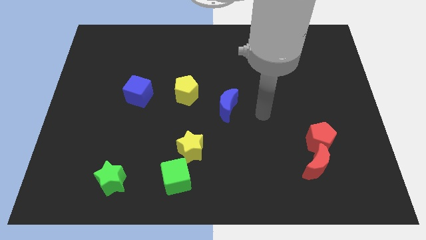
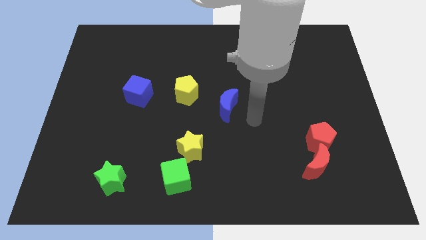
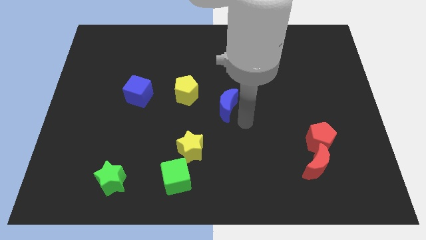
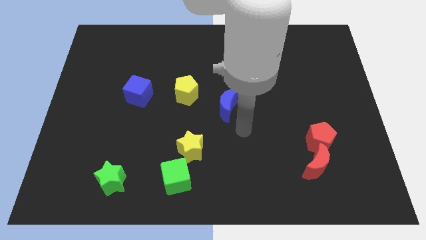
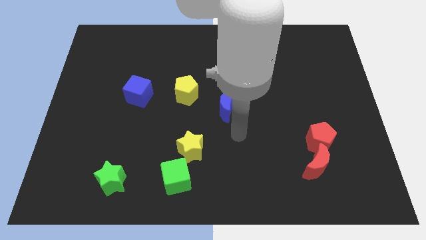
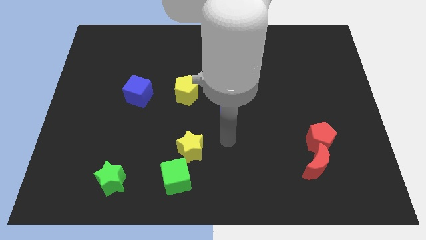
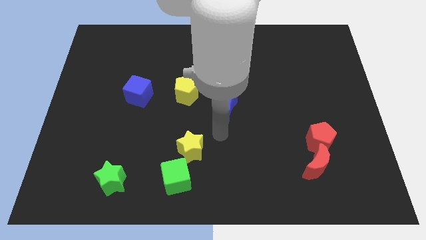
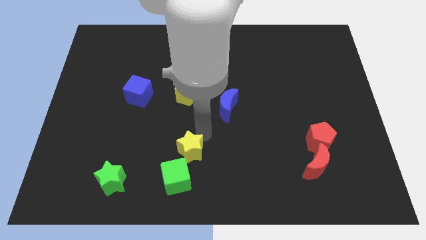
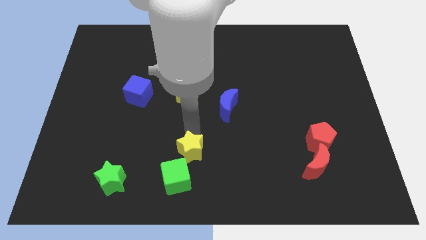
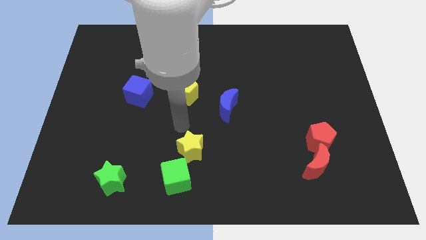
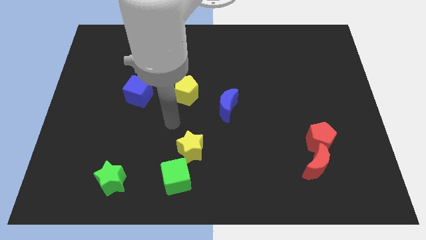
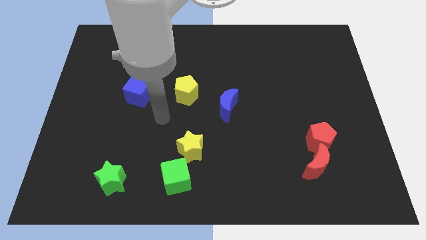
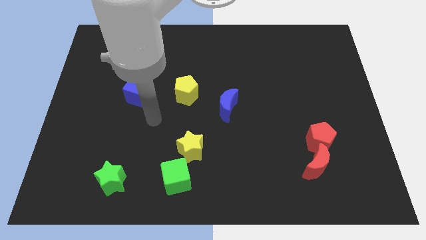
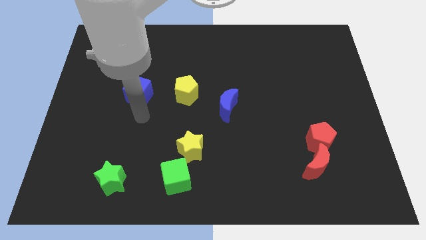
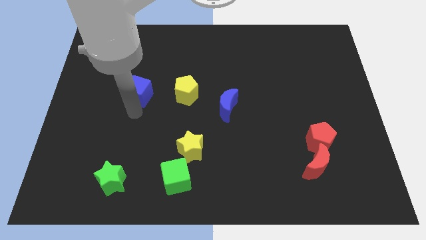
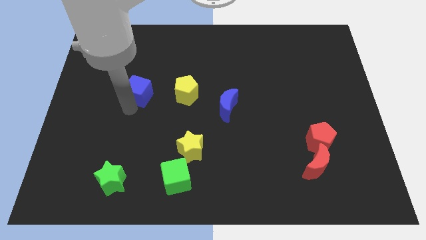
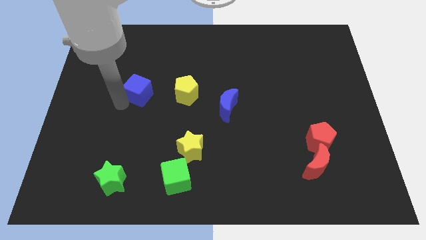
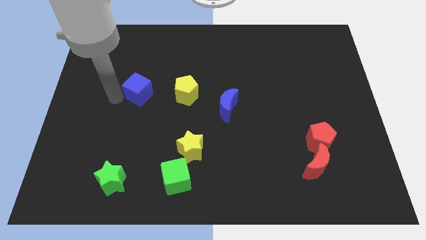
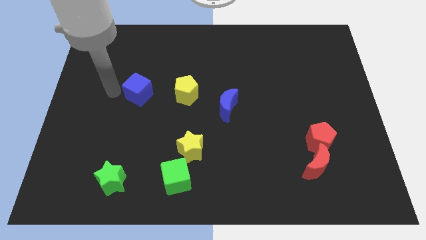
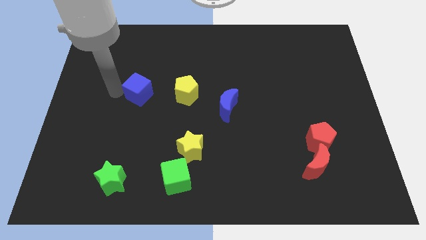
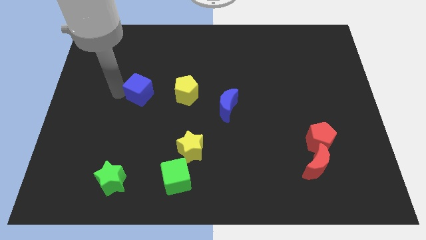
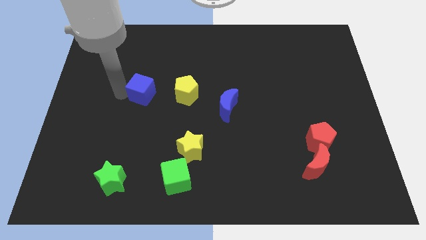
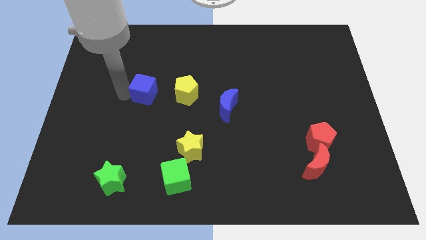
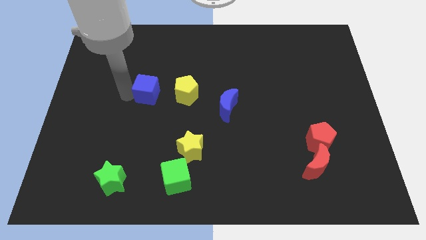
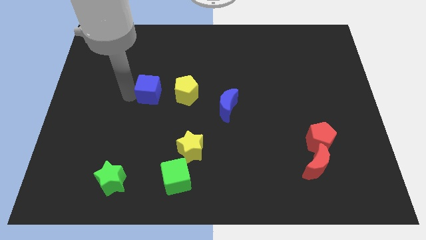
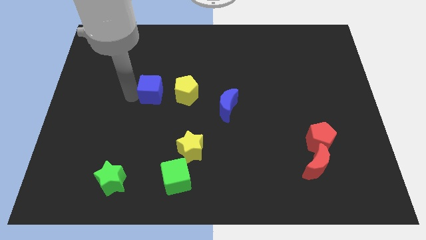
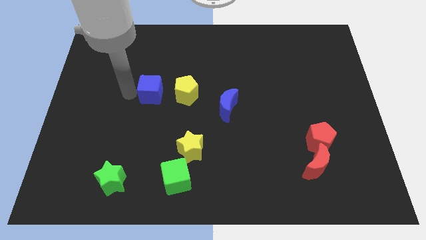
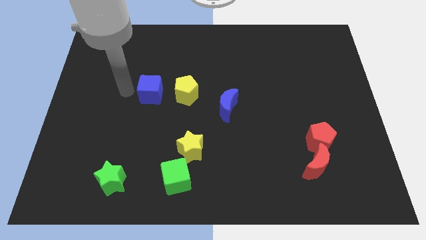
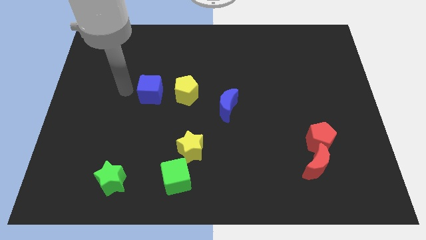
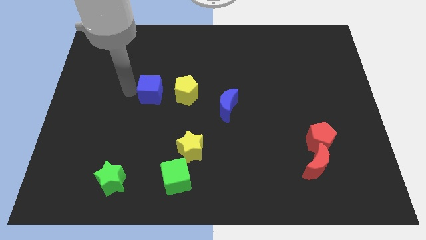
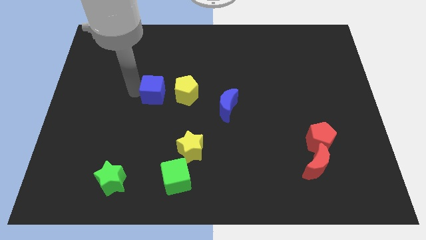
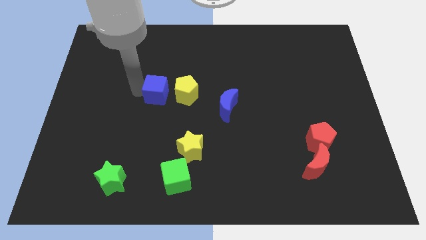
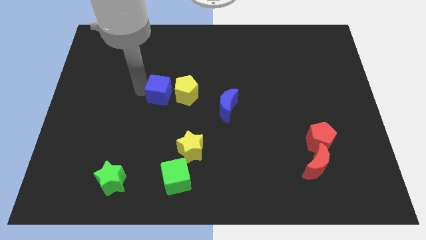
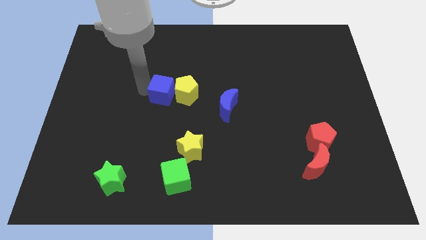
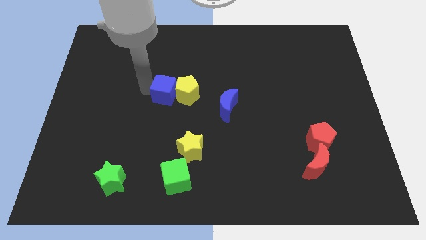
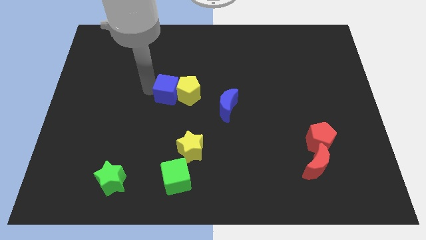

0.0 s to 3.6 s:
slide the blue cube a little right

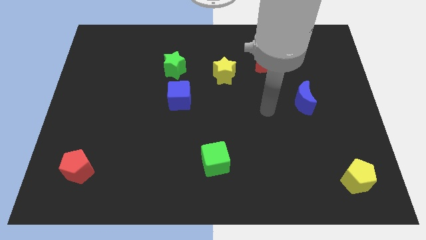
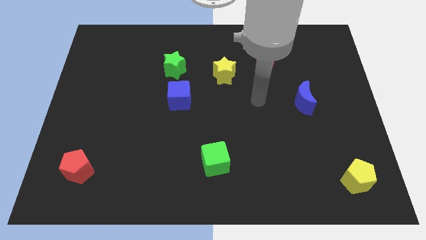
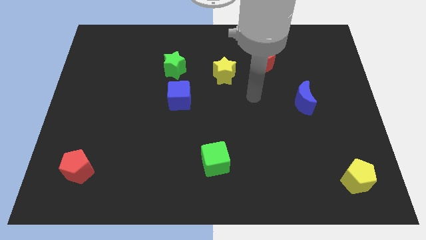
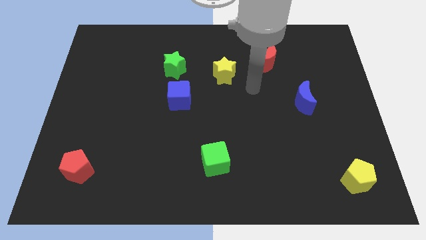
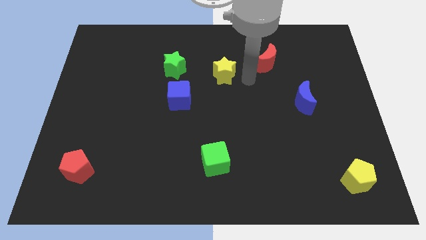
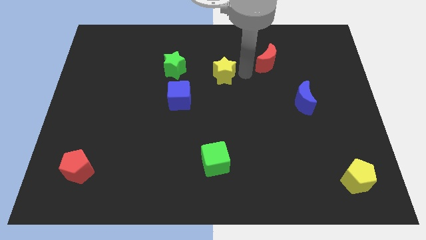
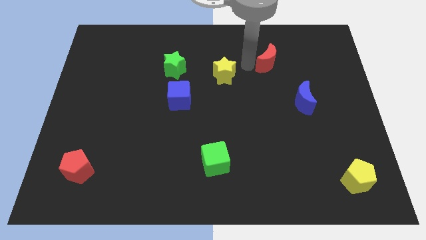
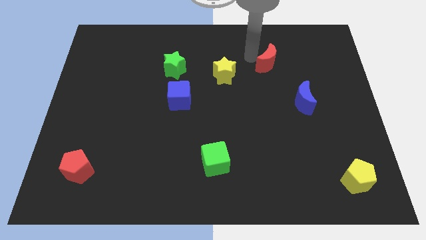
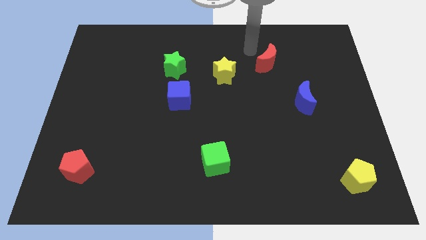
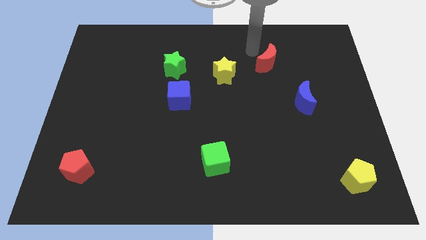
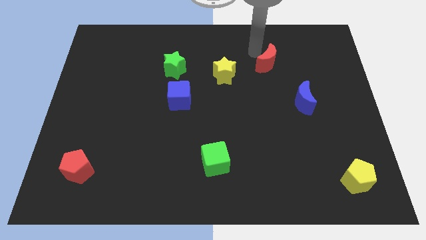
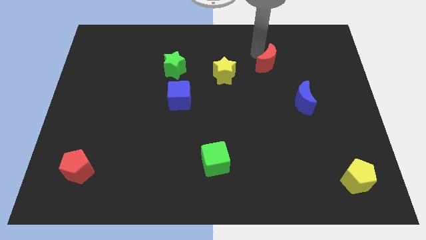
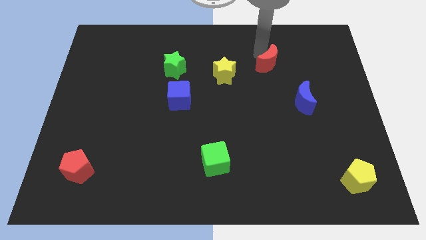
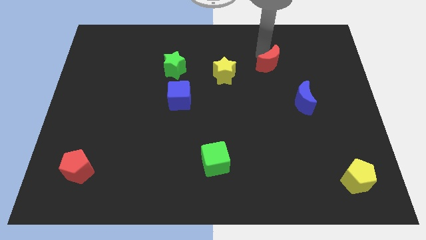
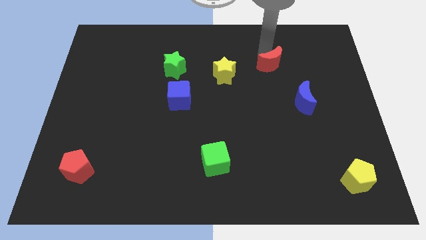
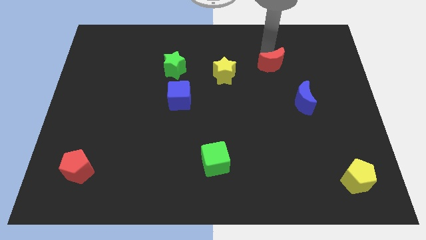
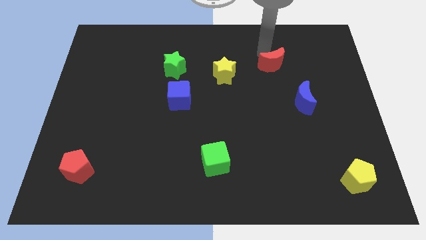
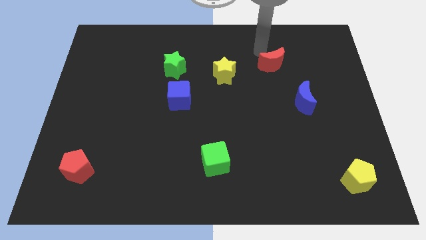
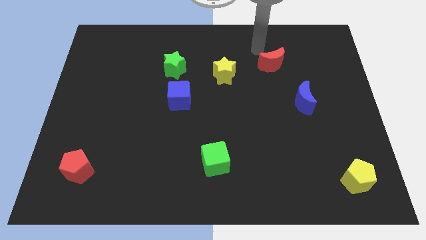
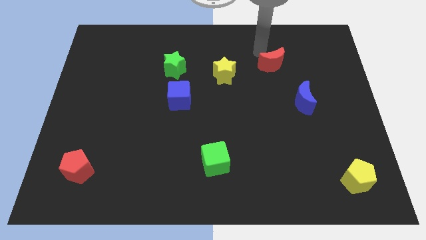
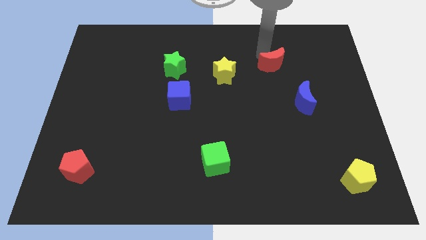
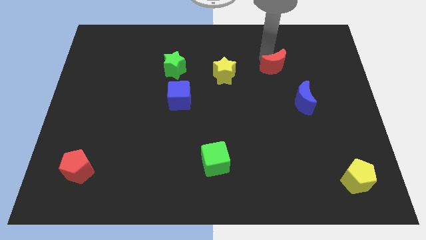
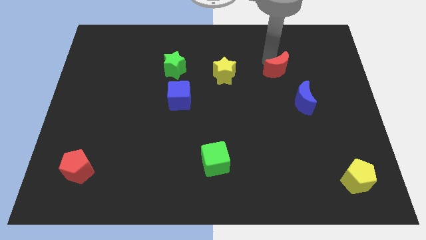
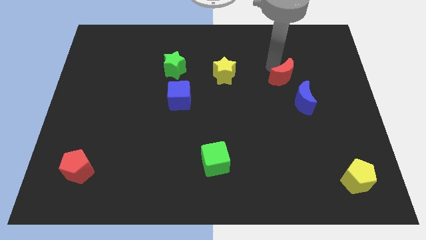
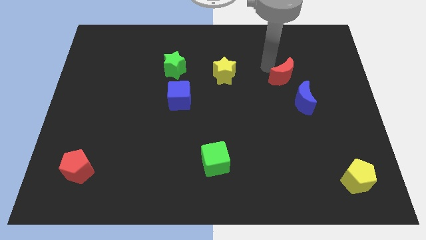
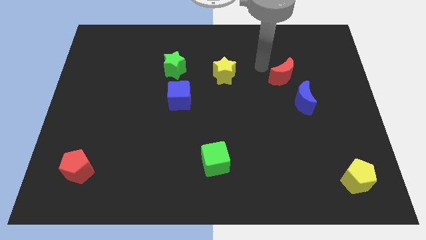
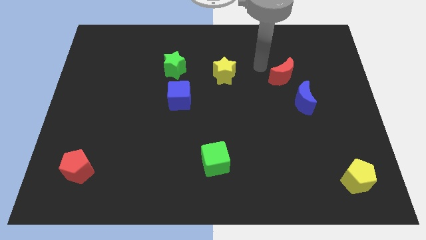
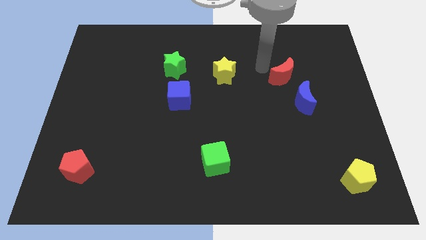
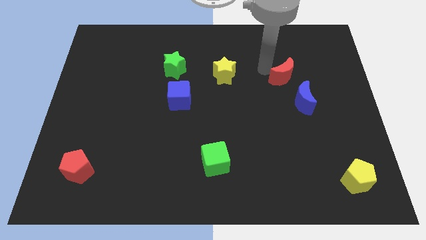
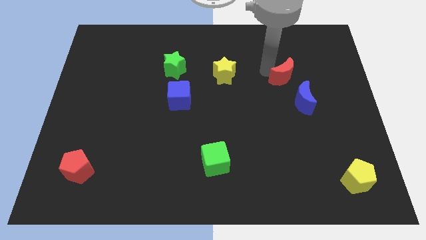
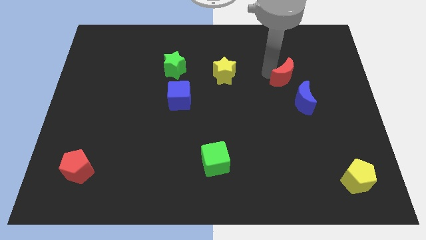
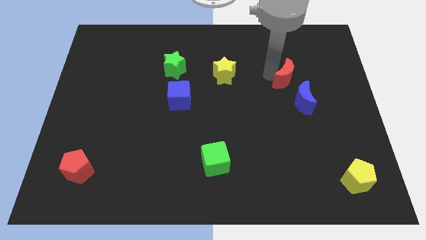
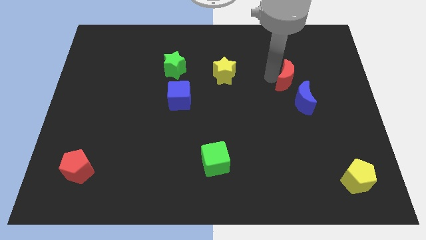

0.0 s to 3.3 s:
slightly move the red moon down and to the right diagonally

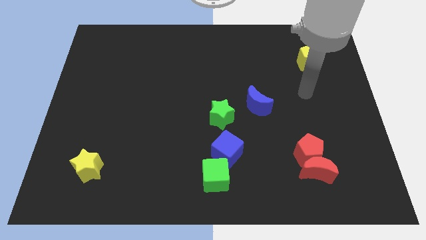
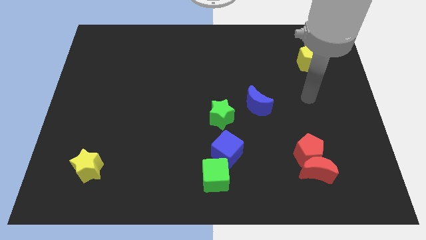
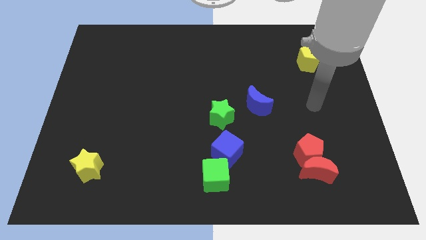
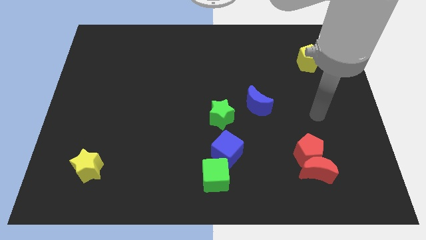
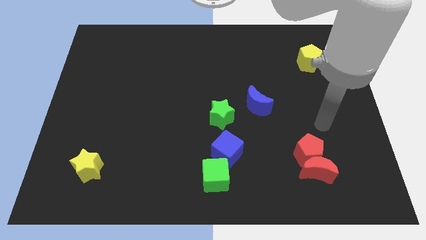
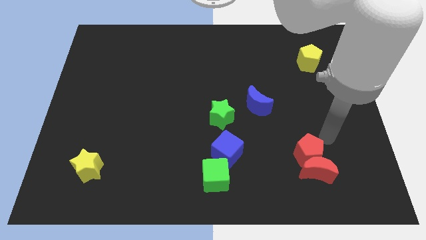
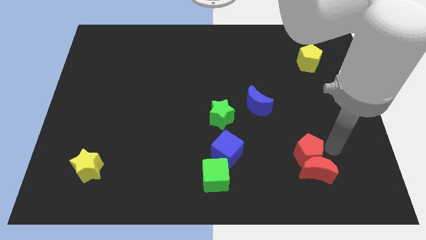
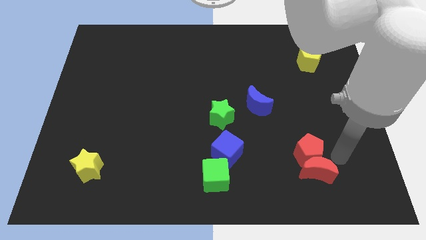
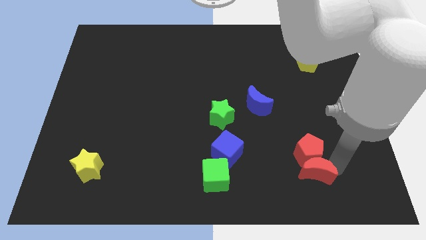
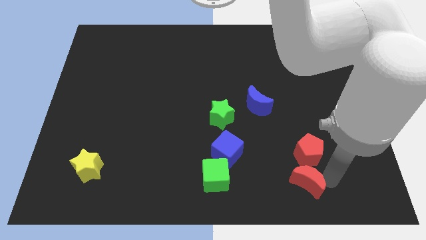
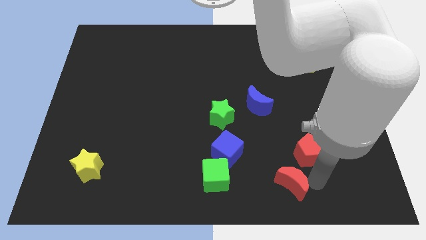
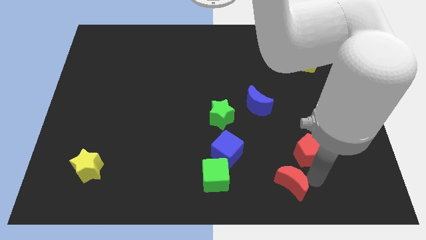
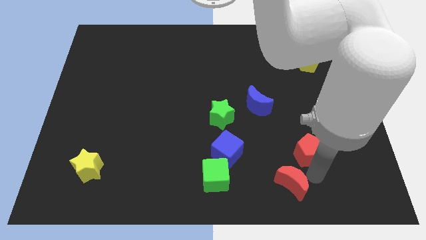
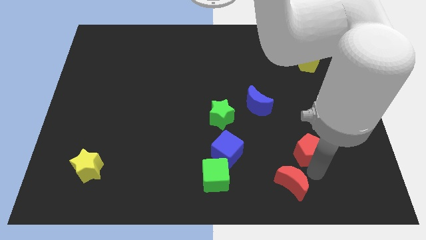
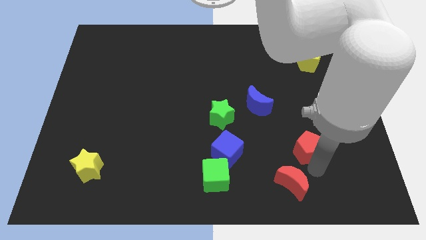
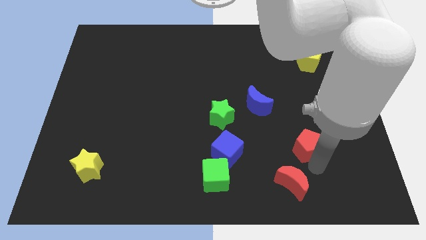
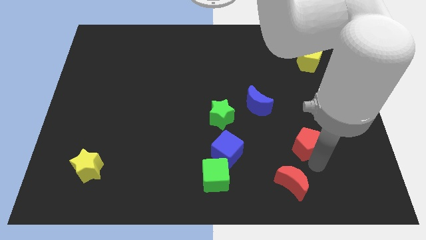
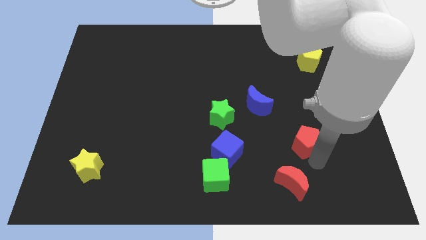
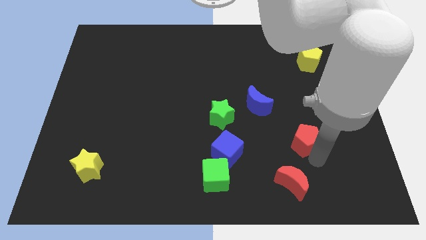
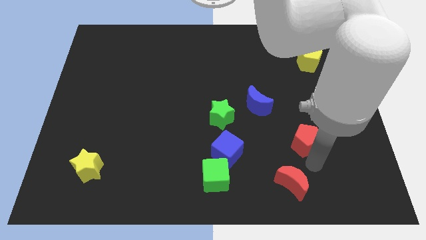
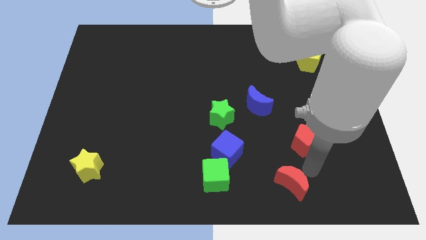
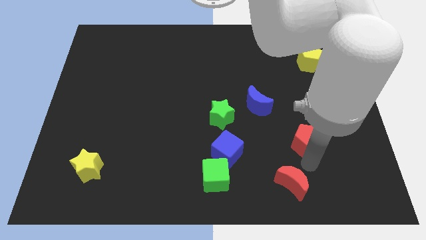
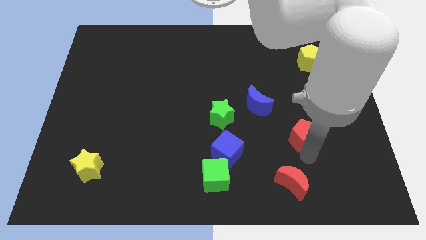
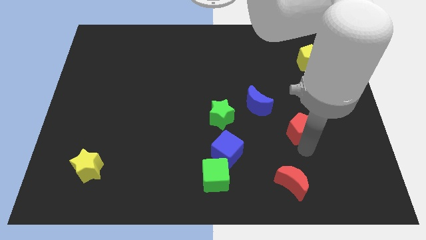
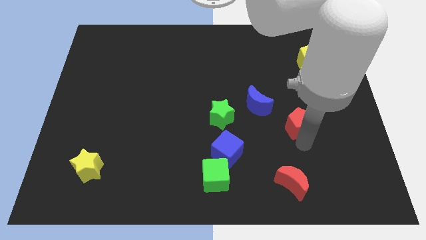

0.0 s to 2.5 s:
slightly move the red pentagon up
